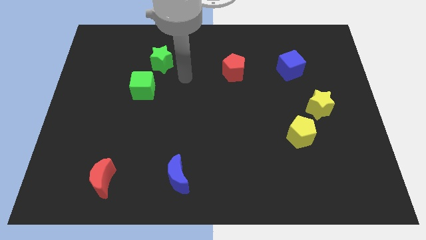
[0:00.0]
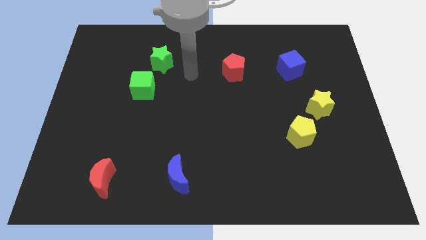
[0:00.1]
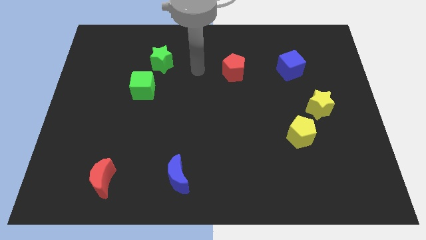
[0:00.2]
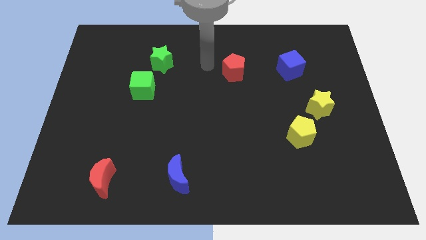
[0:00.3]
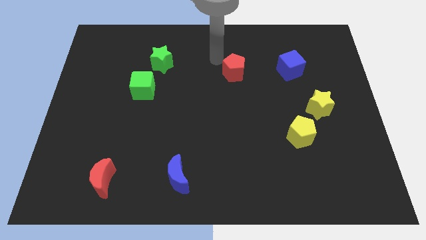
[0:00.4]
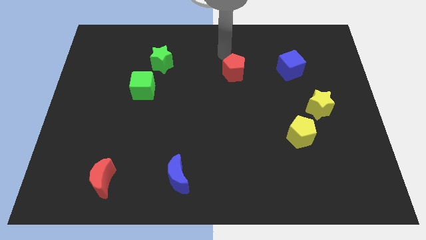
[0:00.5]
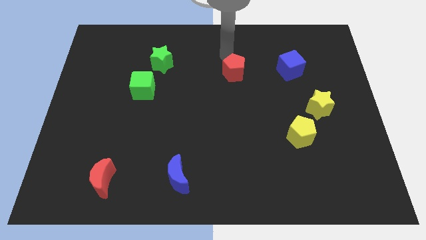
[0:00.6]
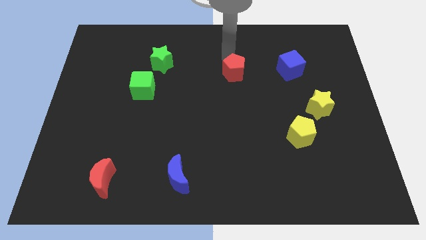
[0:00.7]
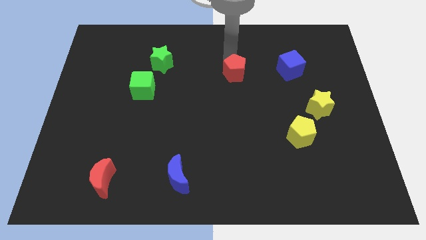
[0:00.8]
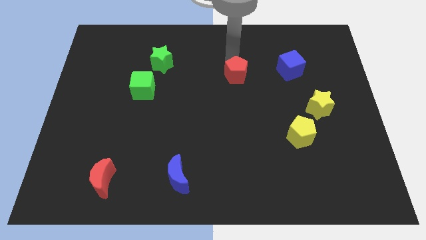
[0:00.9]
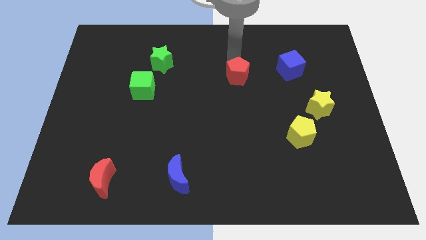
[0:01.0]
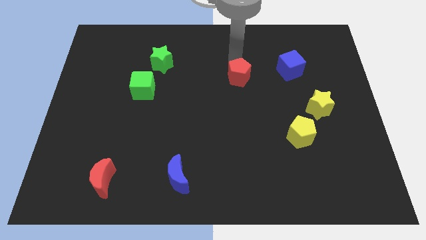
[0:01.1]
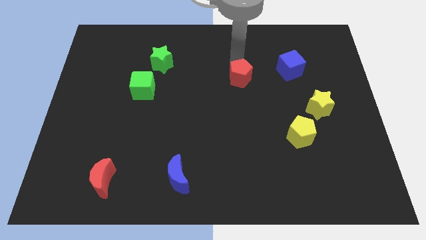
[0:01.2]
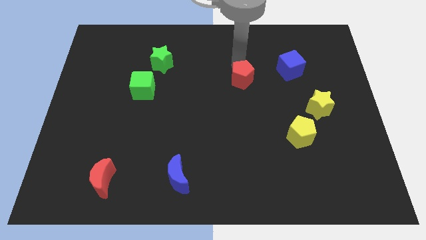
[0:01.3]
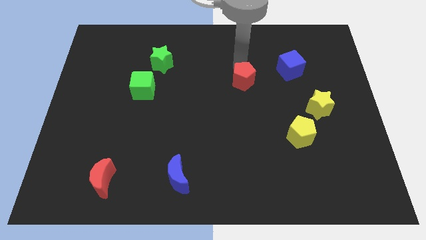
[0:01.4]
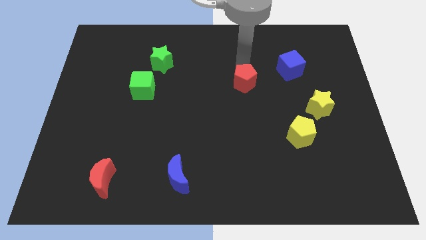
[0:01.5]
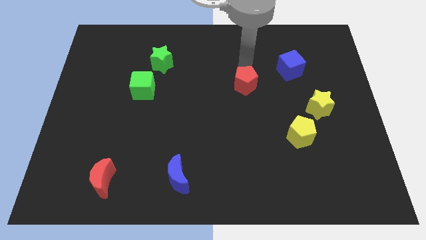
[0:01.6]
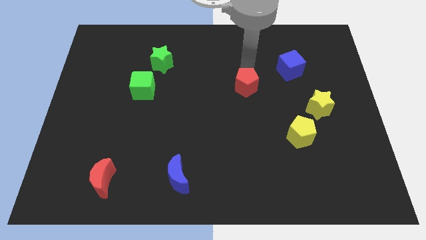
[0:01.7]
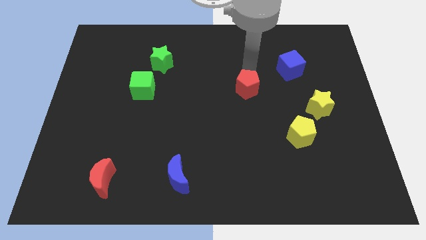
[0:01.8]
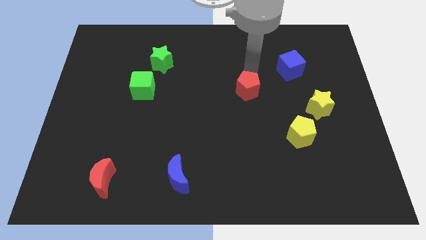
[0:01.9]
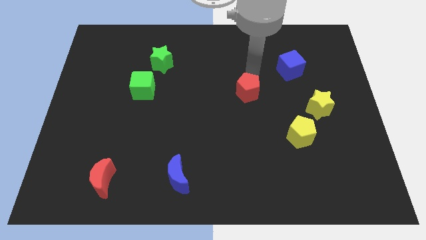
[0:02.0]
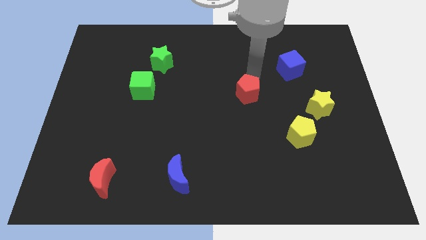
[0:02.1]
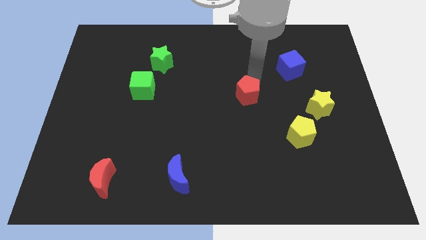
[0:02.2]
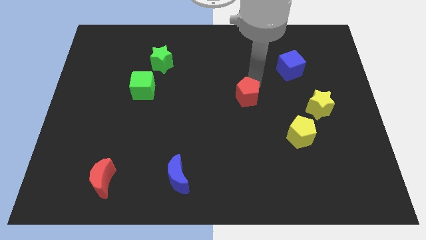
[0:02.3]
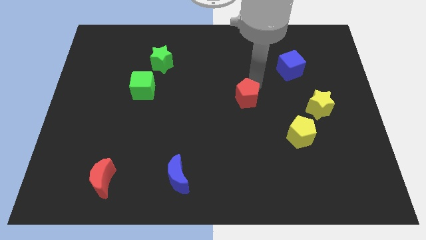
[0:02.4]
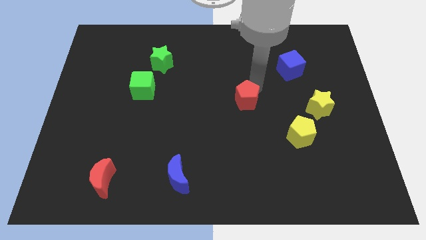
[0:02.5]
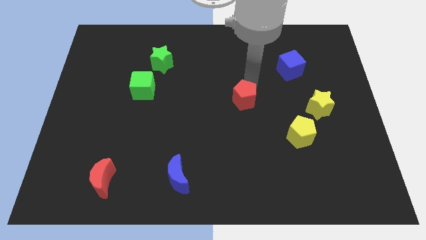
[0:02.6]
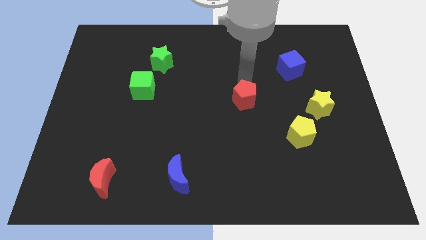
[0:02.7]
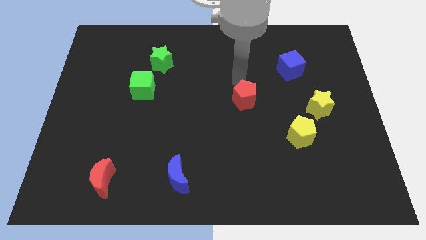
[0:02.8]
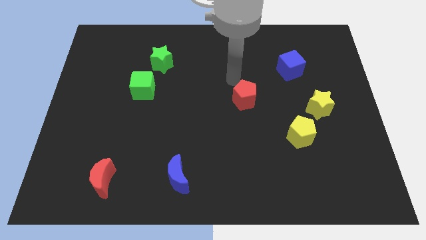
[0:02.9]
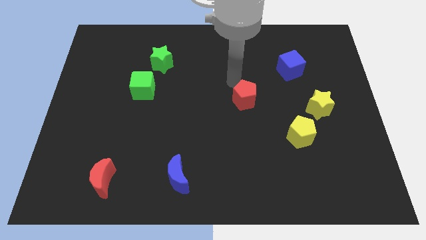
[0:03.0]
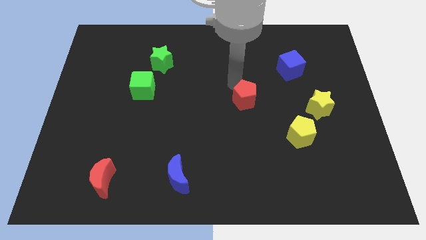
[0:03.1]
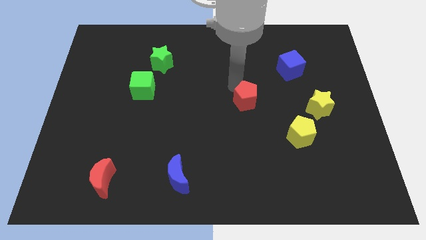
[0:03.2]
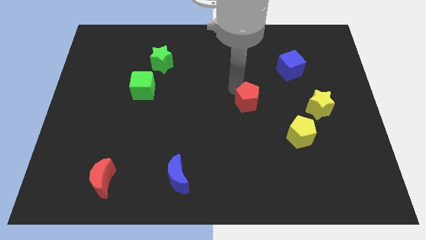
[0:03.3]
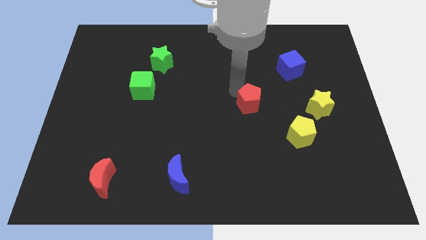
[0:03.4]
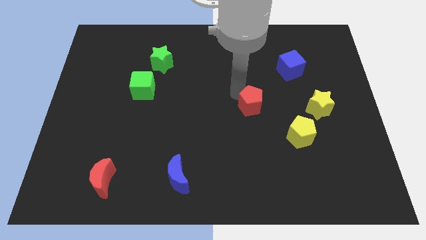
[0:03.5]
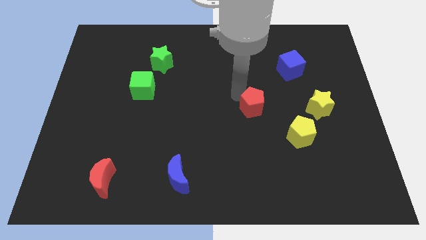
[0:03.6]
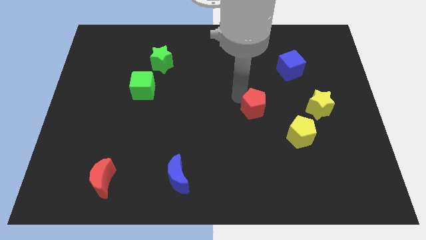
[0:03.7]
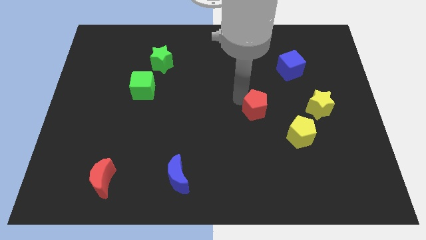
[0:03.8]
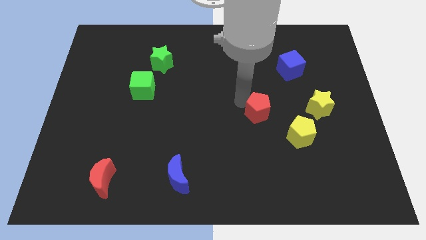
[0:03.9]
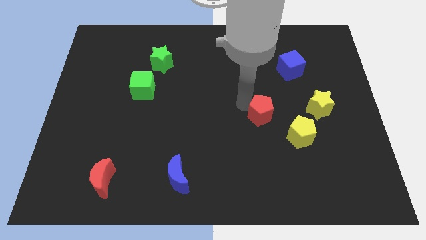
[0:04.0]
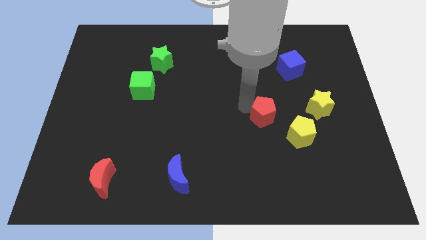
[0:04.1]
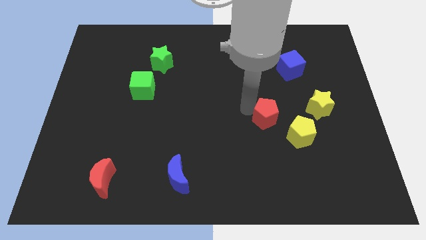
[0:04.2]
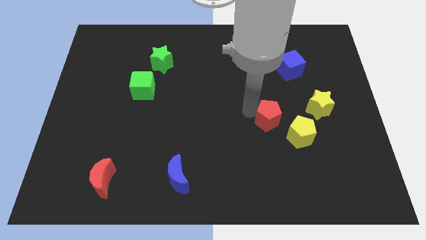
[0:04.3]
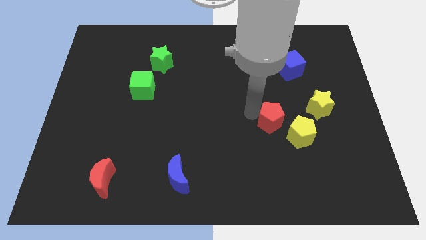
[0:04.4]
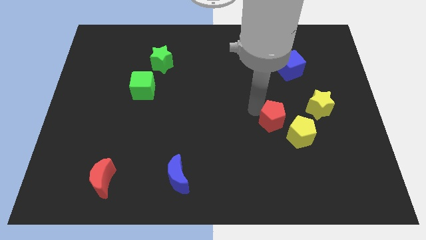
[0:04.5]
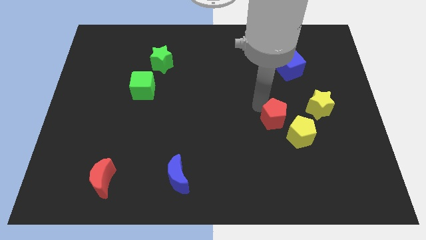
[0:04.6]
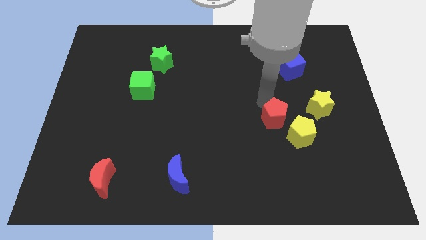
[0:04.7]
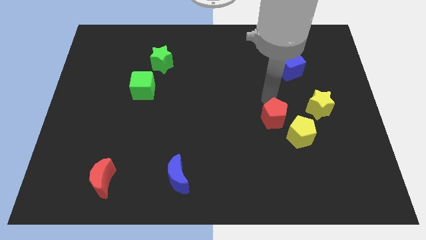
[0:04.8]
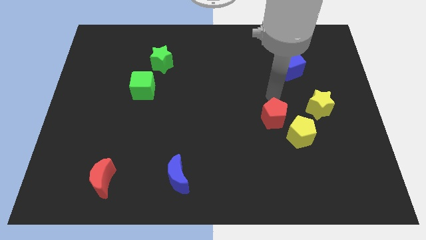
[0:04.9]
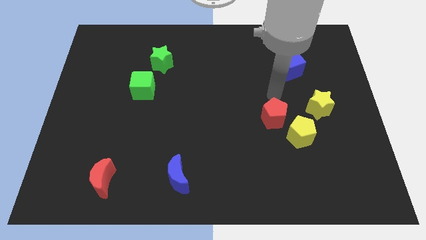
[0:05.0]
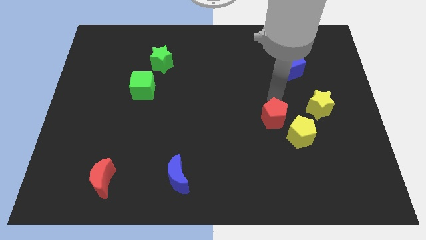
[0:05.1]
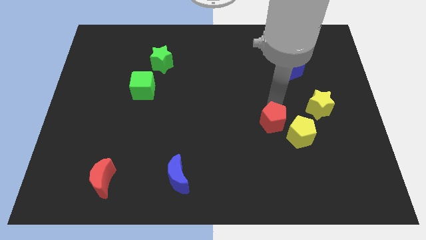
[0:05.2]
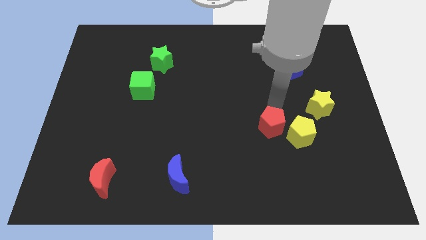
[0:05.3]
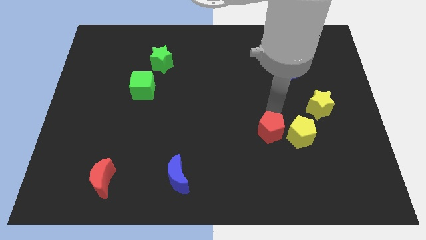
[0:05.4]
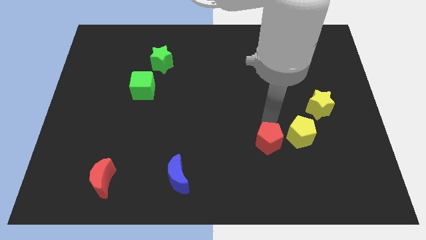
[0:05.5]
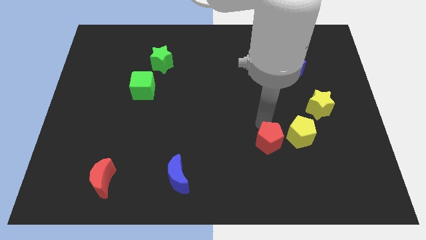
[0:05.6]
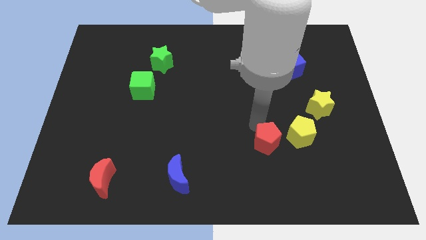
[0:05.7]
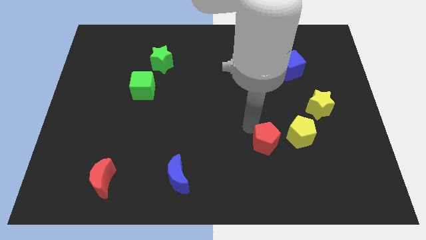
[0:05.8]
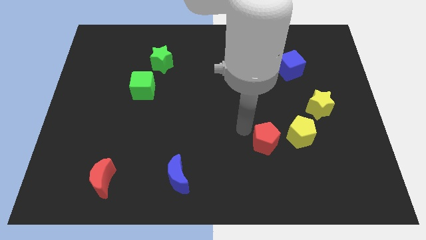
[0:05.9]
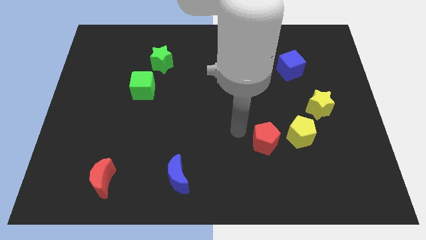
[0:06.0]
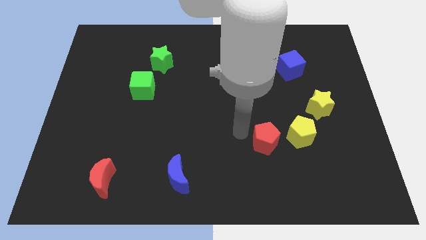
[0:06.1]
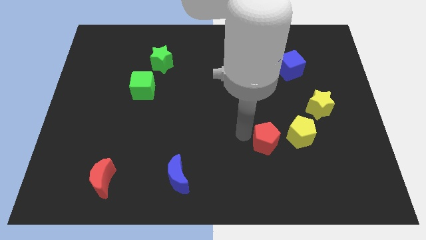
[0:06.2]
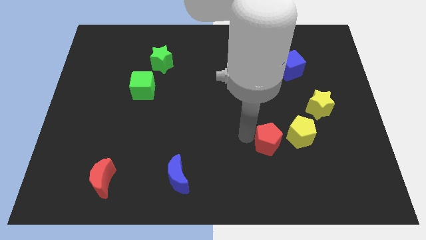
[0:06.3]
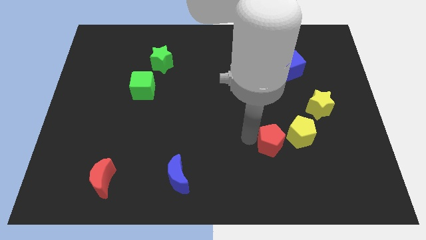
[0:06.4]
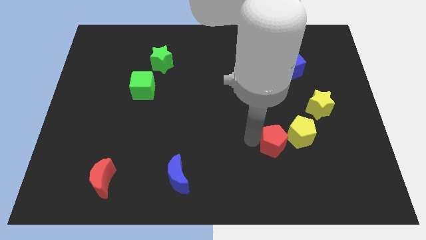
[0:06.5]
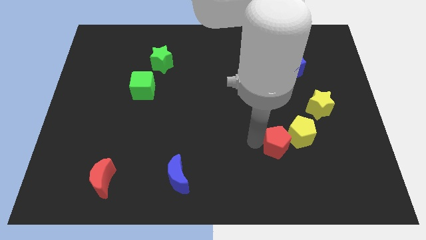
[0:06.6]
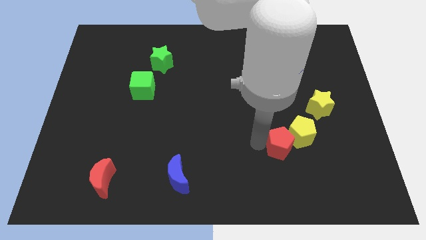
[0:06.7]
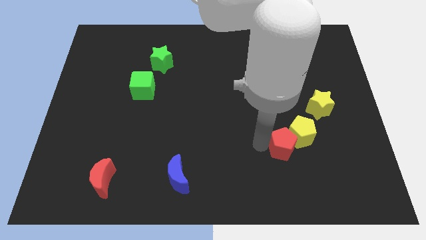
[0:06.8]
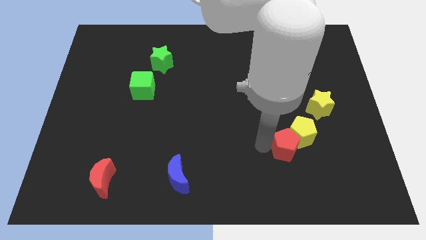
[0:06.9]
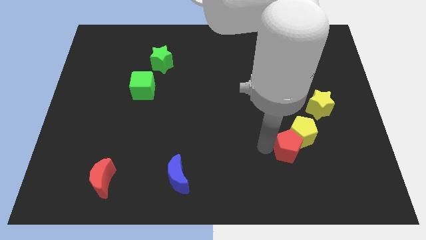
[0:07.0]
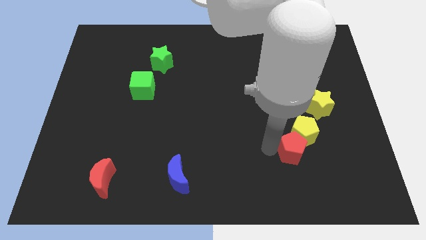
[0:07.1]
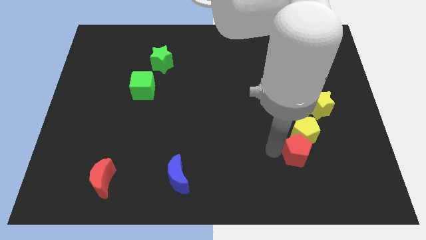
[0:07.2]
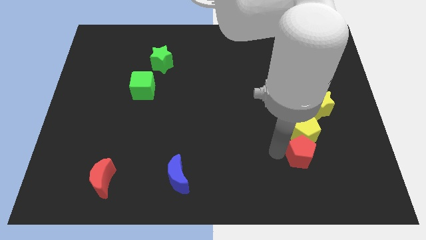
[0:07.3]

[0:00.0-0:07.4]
push the red pentagon diagonally down and to the right of the yellow pentagon
